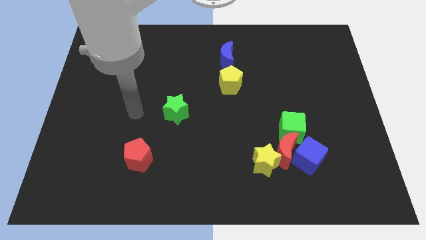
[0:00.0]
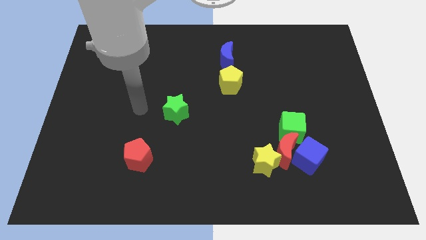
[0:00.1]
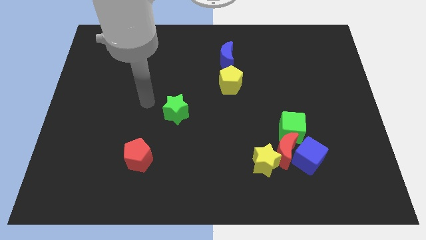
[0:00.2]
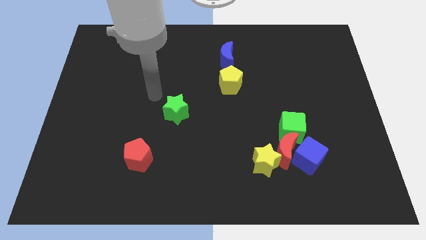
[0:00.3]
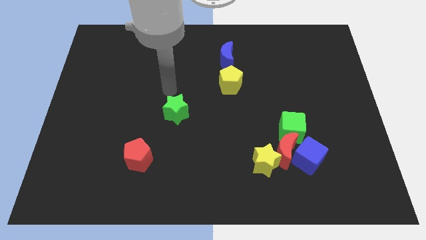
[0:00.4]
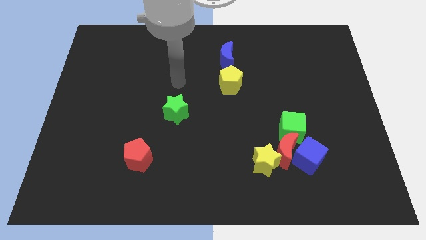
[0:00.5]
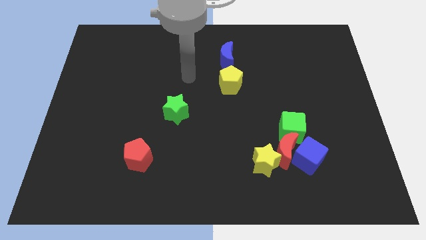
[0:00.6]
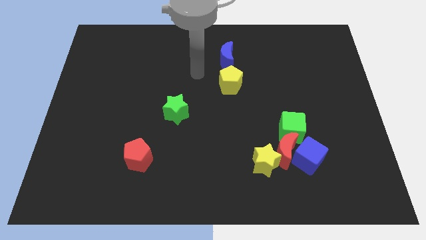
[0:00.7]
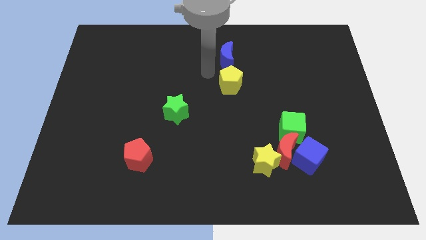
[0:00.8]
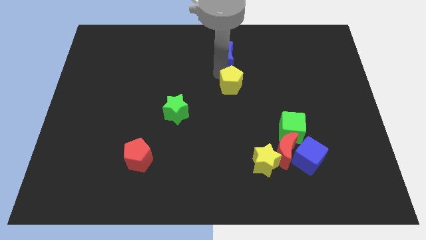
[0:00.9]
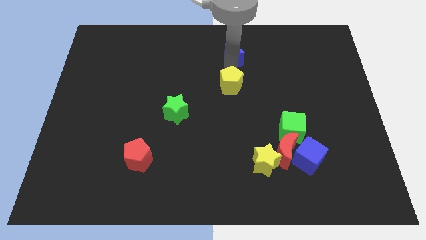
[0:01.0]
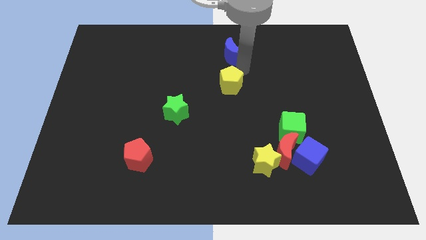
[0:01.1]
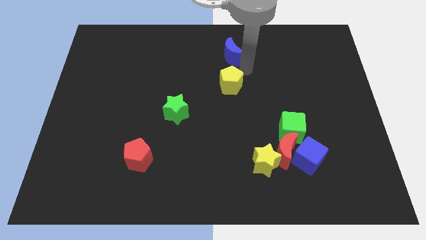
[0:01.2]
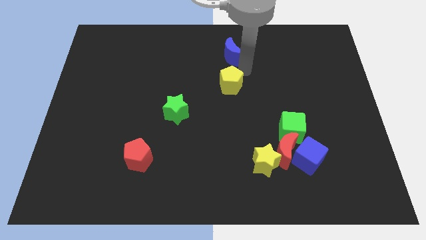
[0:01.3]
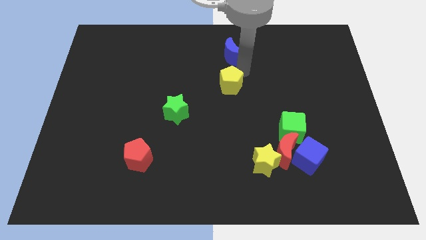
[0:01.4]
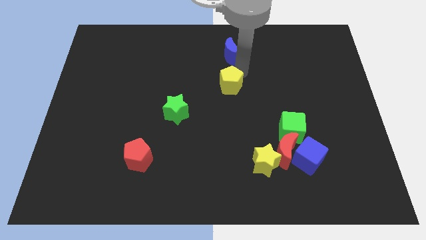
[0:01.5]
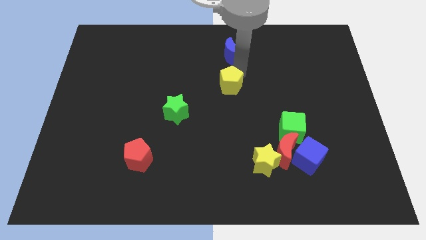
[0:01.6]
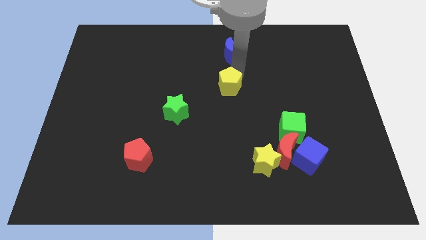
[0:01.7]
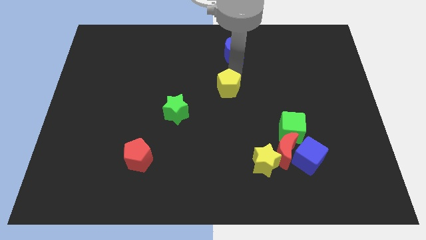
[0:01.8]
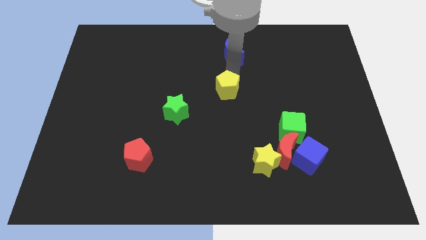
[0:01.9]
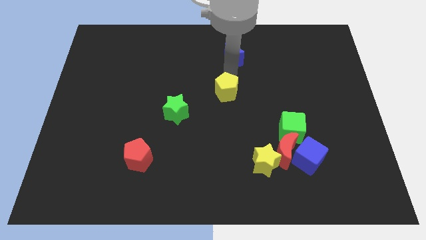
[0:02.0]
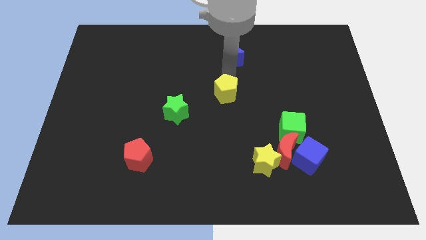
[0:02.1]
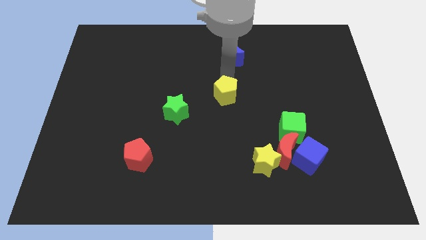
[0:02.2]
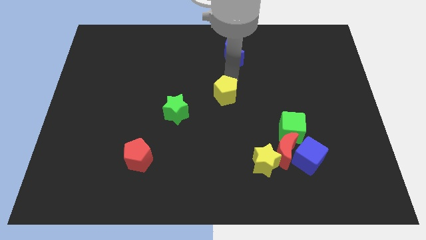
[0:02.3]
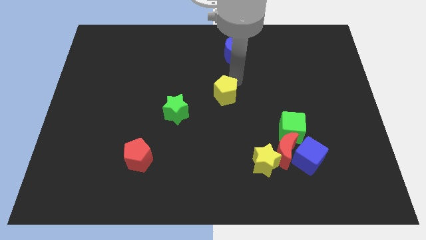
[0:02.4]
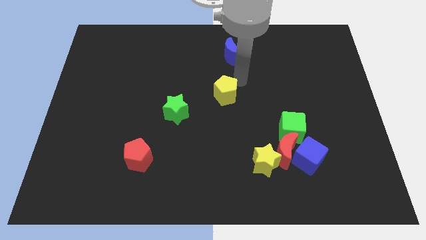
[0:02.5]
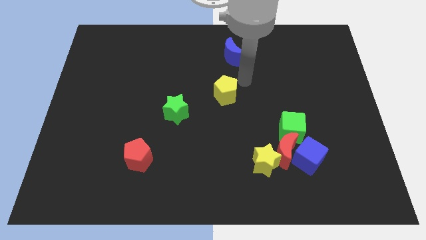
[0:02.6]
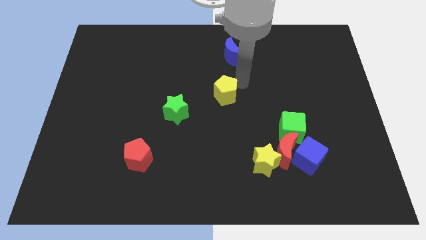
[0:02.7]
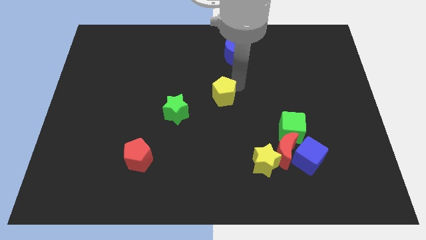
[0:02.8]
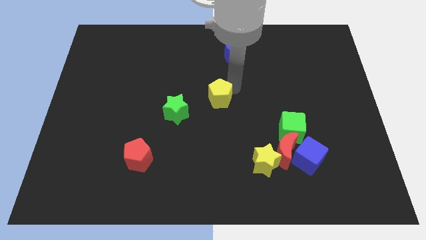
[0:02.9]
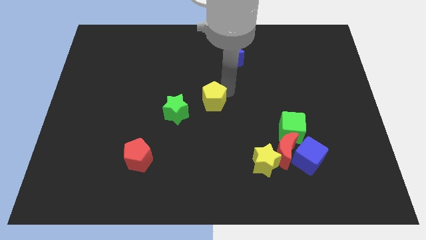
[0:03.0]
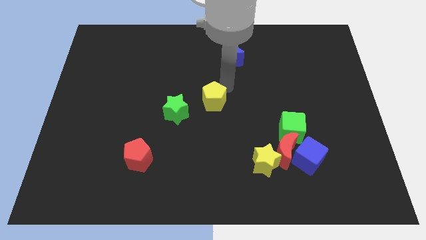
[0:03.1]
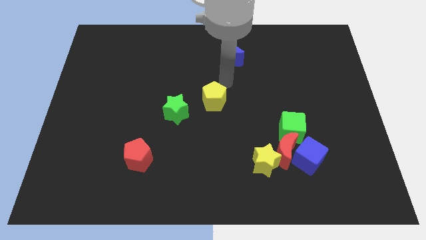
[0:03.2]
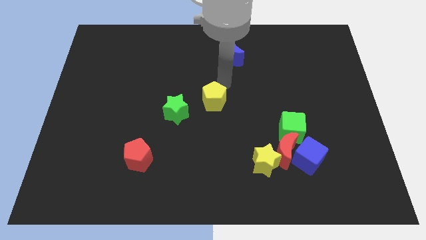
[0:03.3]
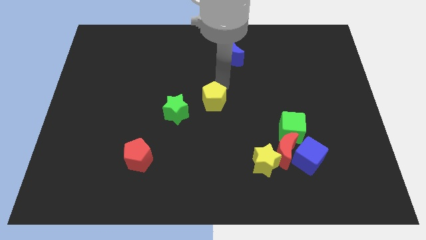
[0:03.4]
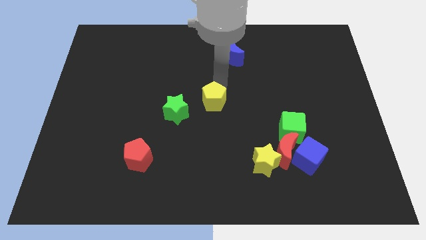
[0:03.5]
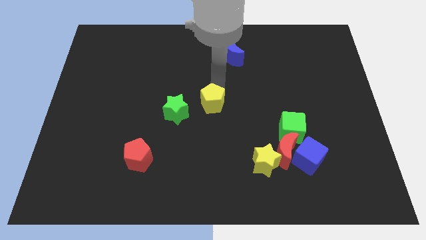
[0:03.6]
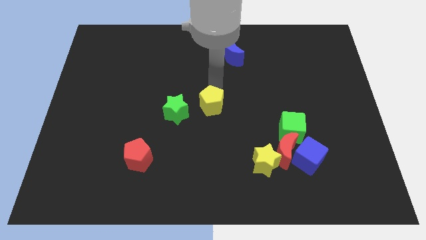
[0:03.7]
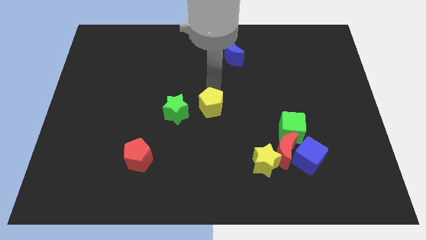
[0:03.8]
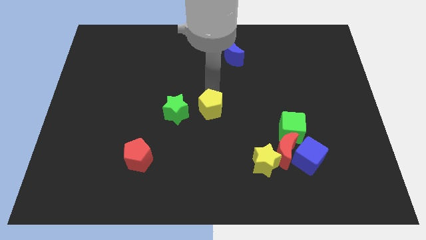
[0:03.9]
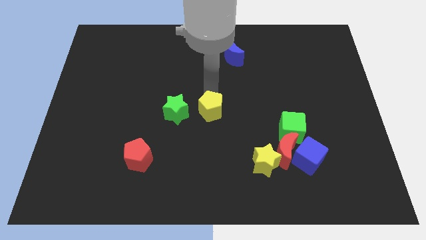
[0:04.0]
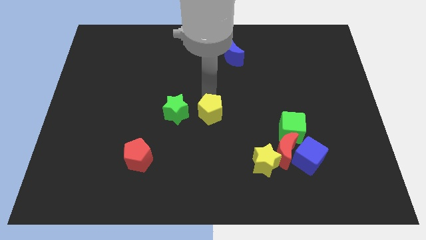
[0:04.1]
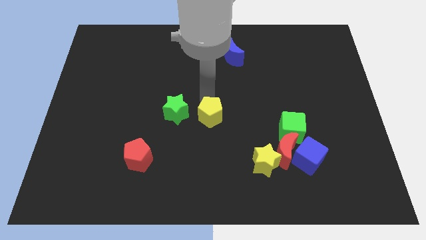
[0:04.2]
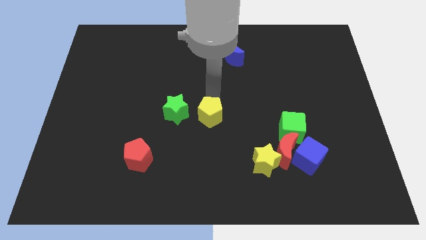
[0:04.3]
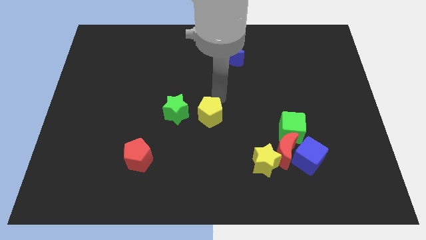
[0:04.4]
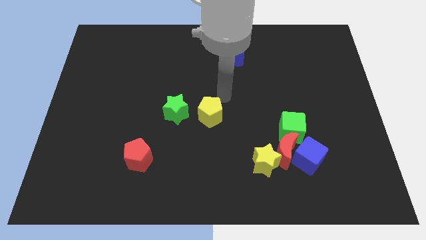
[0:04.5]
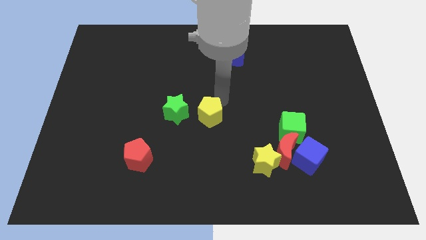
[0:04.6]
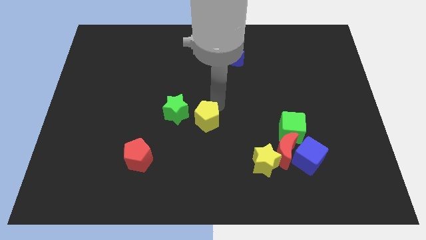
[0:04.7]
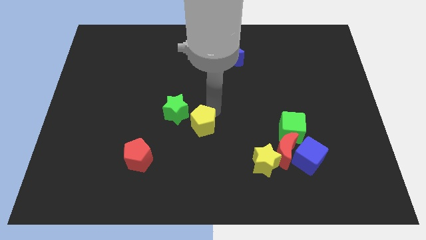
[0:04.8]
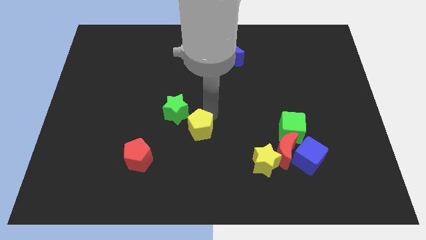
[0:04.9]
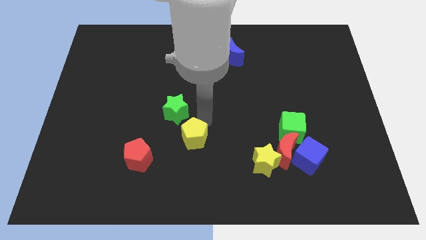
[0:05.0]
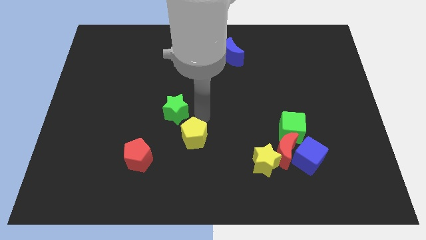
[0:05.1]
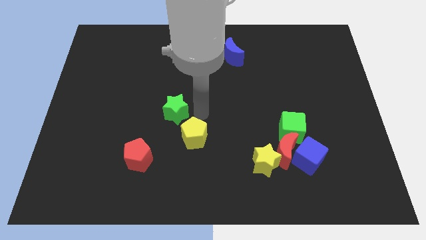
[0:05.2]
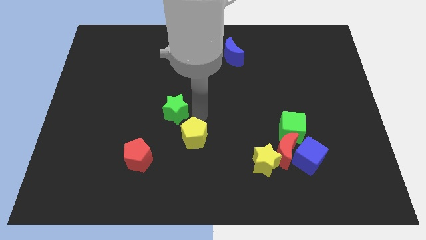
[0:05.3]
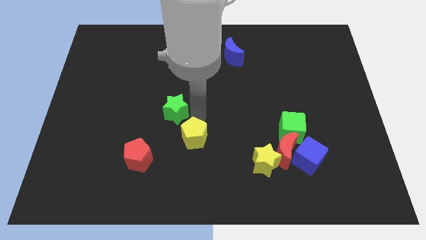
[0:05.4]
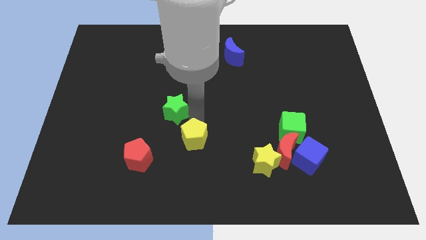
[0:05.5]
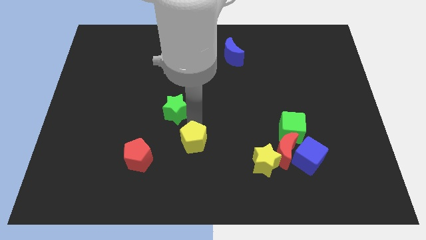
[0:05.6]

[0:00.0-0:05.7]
put the yellow pentagon just right of the red pentagon

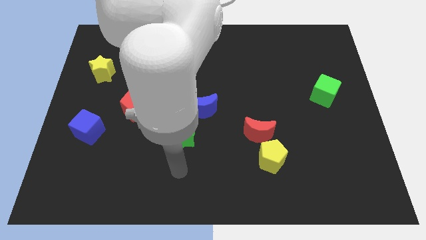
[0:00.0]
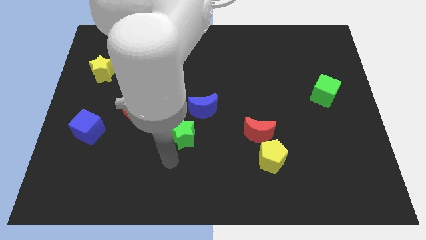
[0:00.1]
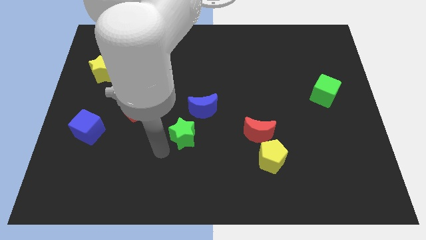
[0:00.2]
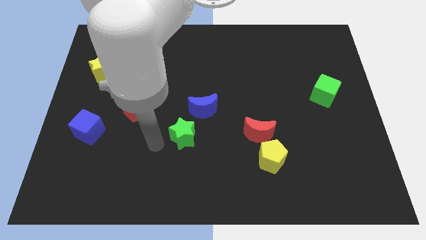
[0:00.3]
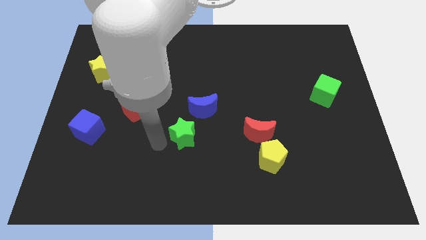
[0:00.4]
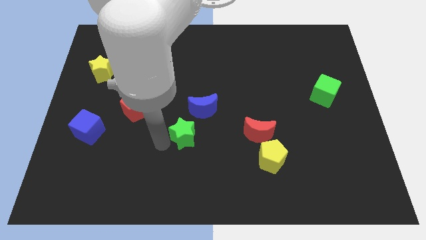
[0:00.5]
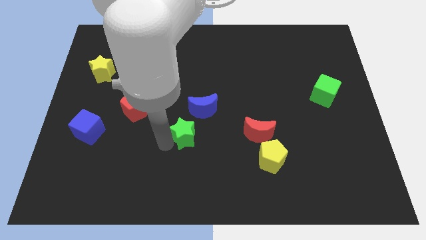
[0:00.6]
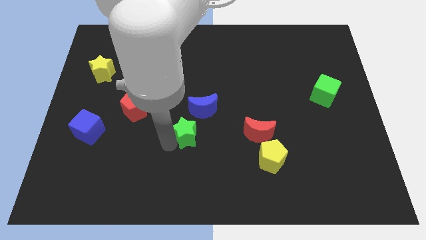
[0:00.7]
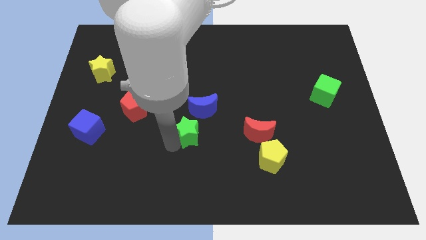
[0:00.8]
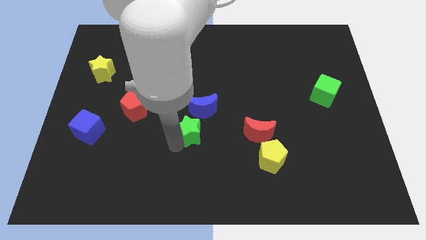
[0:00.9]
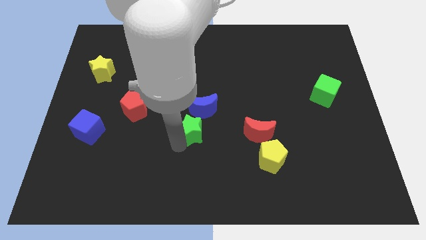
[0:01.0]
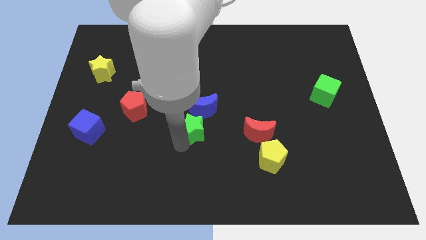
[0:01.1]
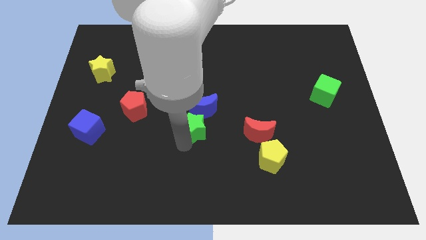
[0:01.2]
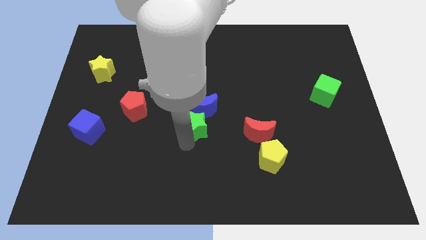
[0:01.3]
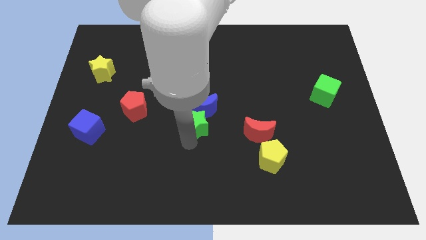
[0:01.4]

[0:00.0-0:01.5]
put the green star to the bottom right of the blue moon
